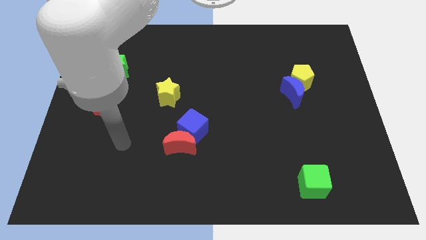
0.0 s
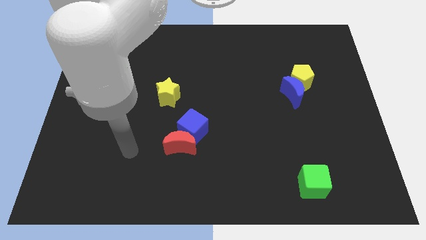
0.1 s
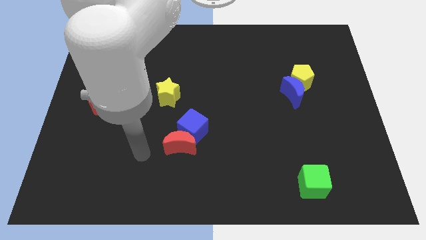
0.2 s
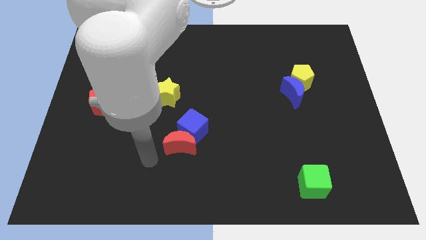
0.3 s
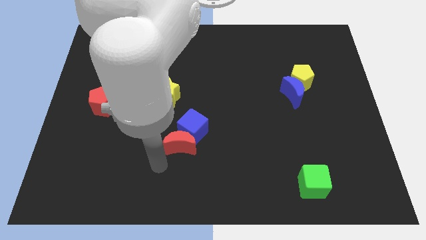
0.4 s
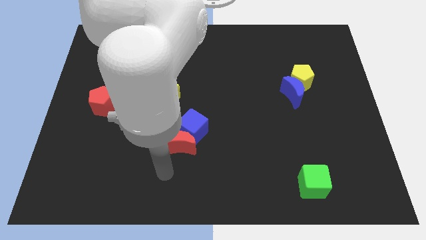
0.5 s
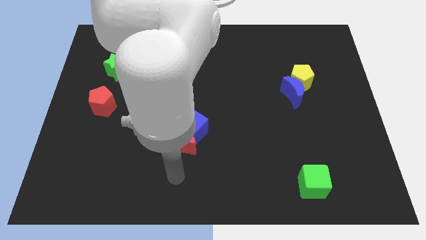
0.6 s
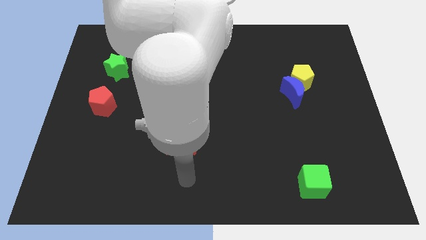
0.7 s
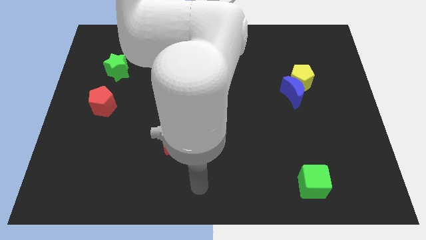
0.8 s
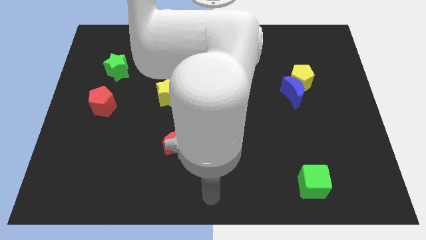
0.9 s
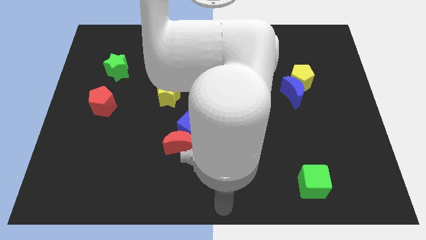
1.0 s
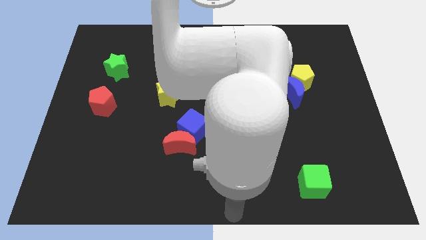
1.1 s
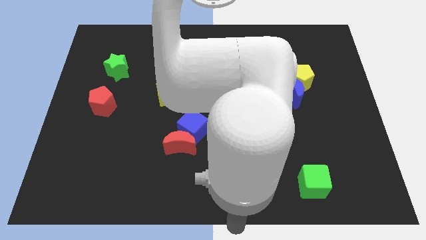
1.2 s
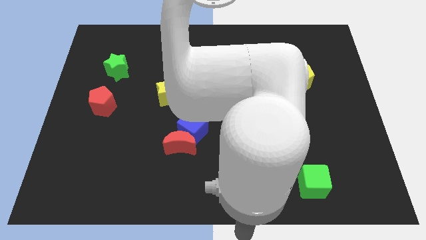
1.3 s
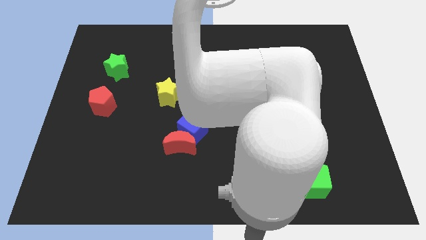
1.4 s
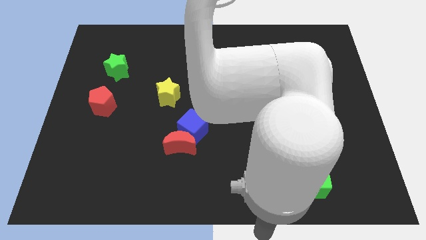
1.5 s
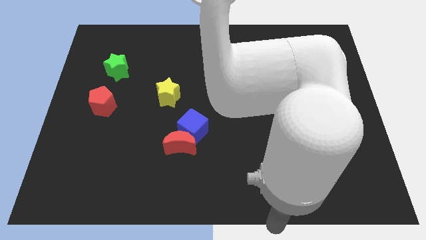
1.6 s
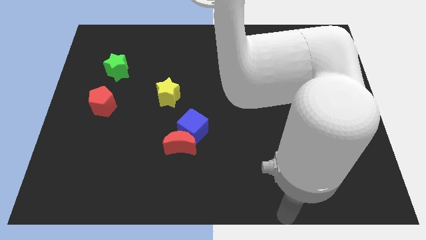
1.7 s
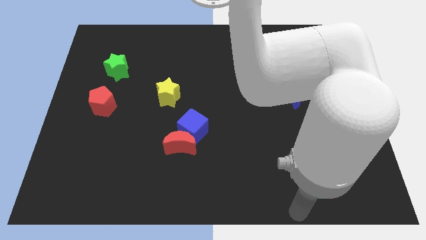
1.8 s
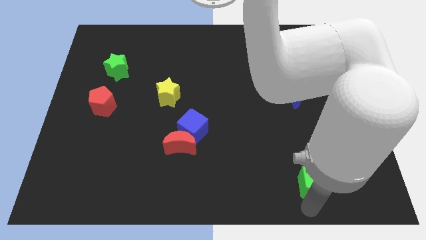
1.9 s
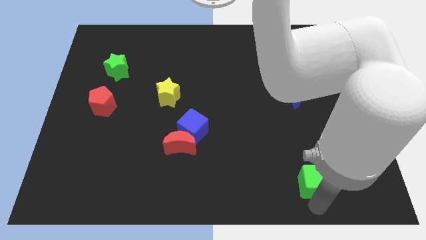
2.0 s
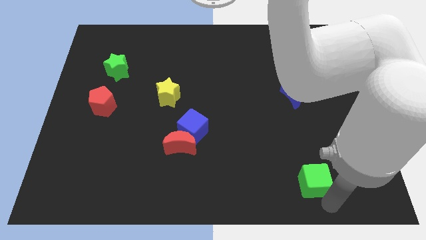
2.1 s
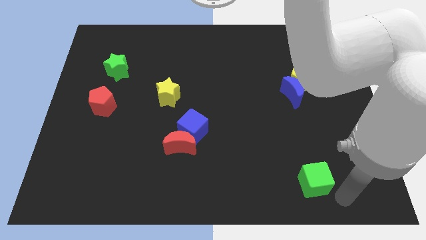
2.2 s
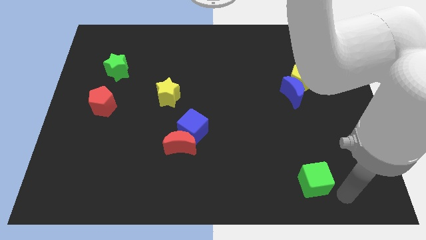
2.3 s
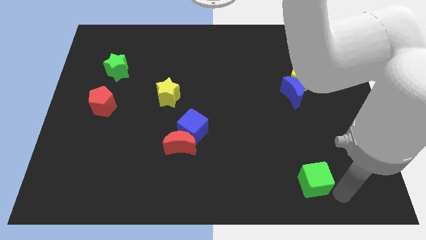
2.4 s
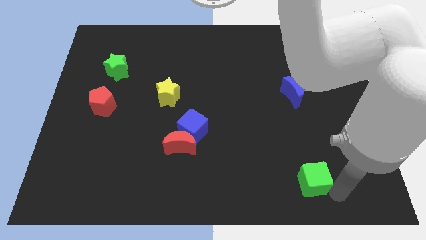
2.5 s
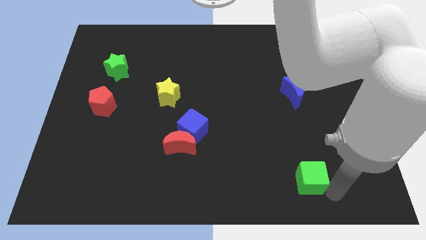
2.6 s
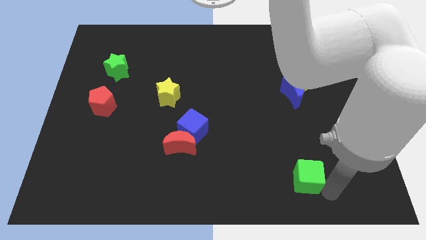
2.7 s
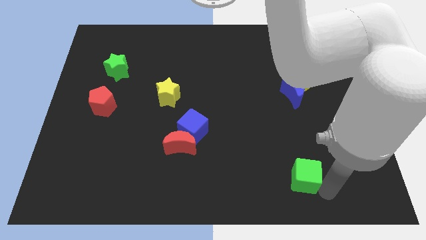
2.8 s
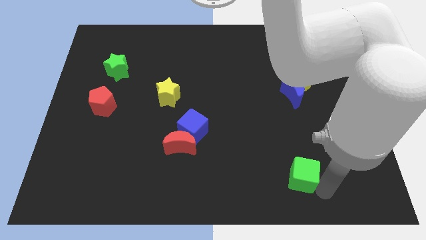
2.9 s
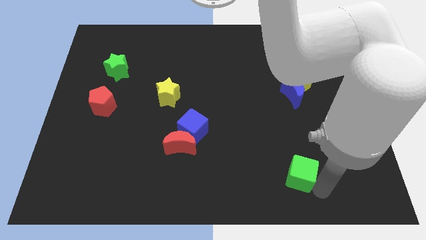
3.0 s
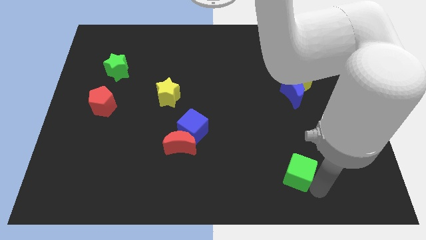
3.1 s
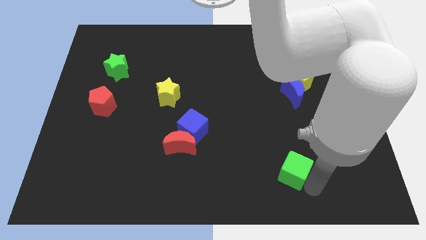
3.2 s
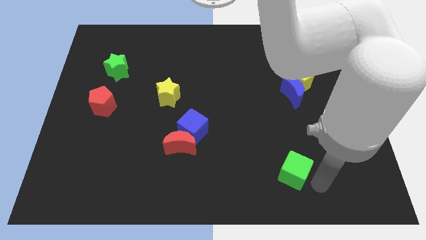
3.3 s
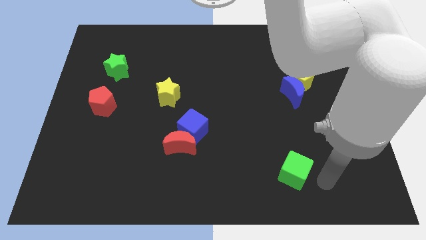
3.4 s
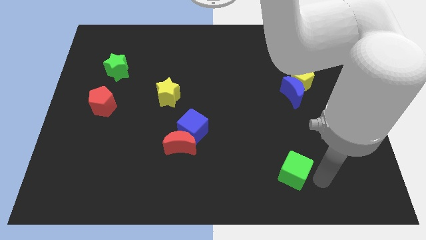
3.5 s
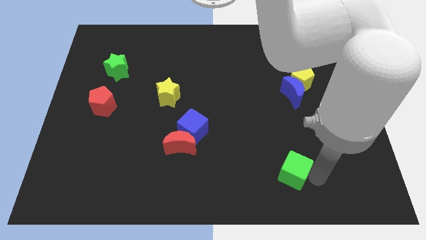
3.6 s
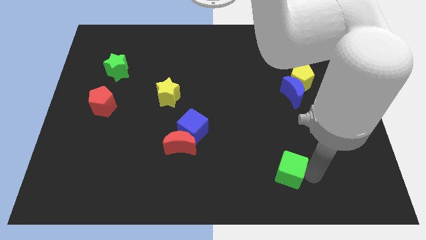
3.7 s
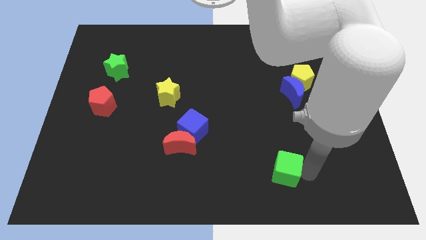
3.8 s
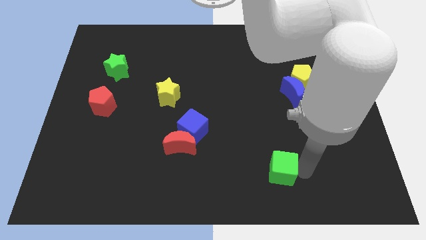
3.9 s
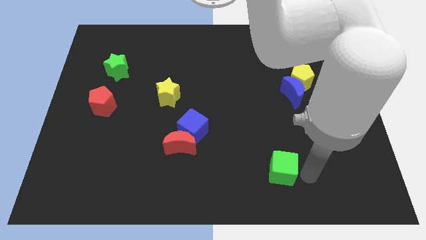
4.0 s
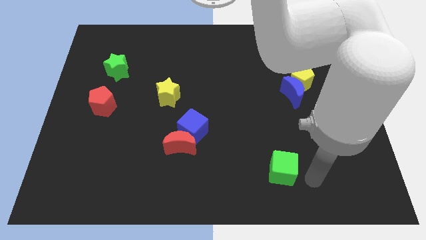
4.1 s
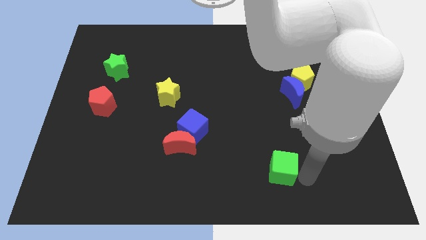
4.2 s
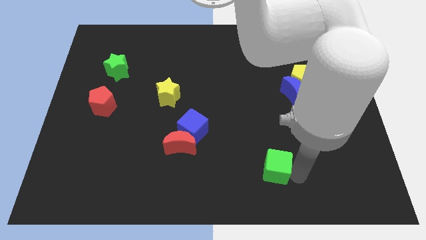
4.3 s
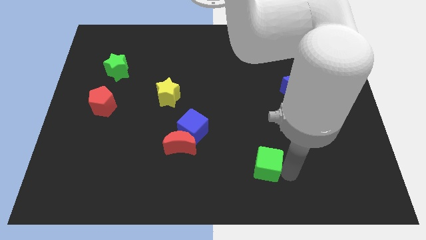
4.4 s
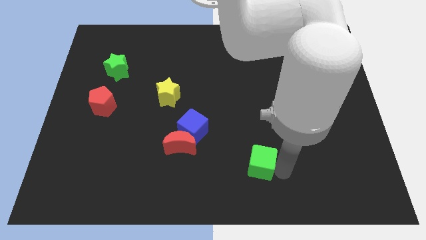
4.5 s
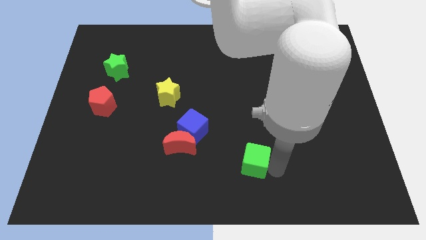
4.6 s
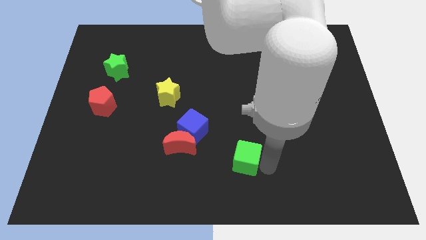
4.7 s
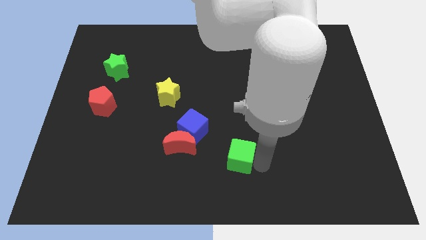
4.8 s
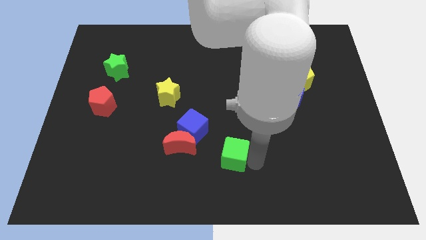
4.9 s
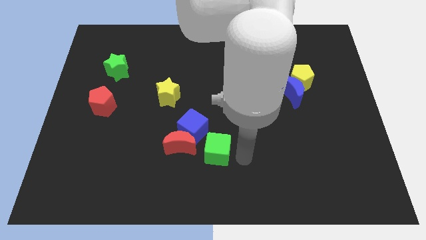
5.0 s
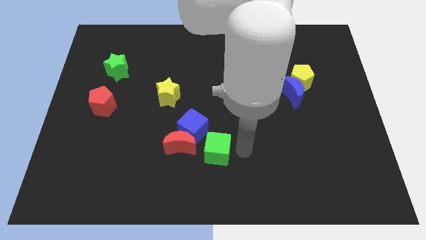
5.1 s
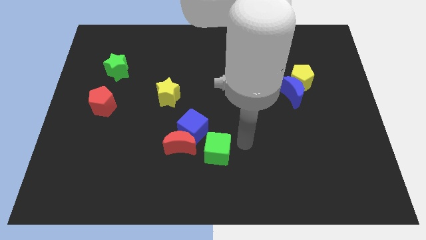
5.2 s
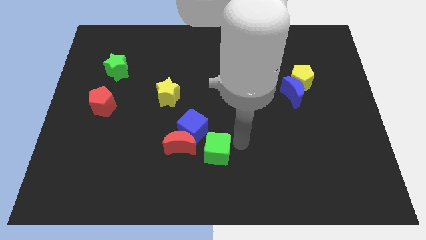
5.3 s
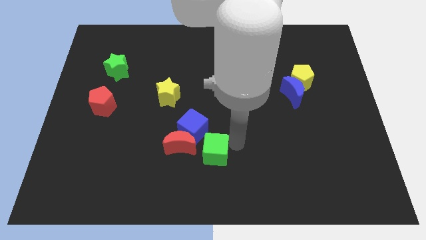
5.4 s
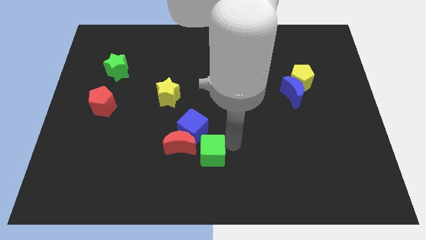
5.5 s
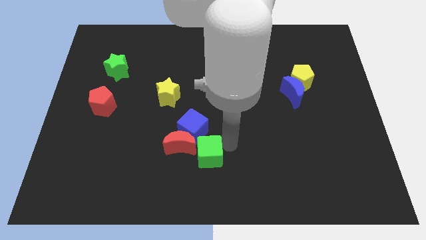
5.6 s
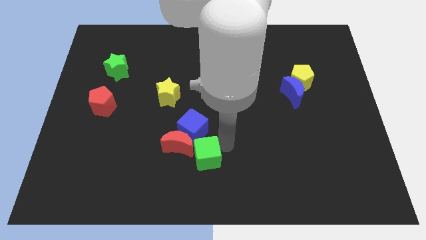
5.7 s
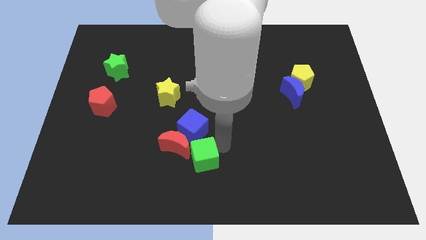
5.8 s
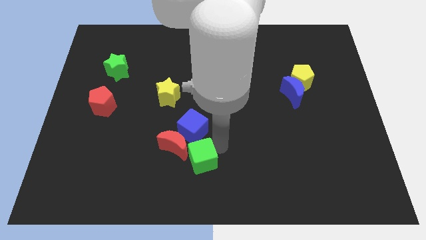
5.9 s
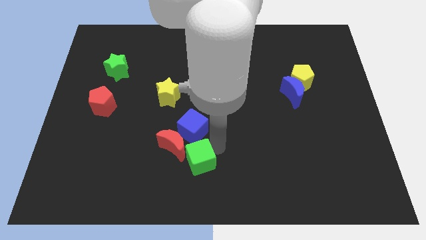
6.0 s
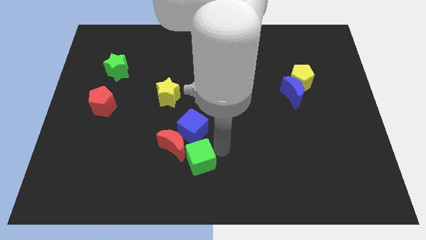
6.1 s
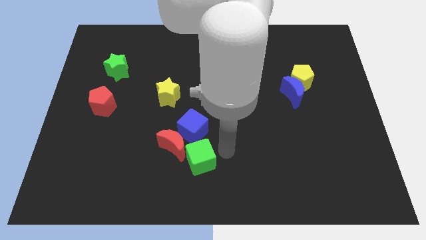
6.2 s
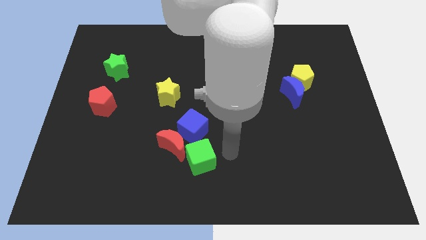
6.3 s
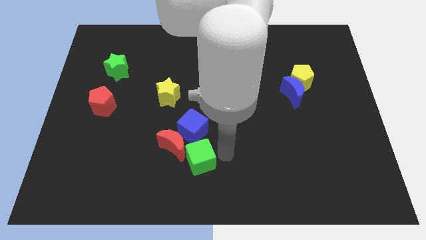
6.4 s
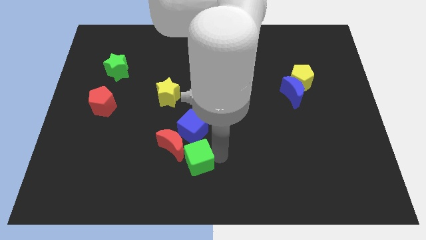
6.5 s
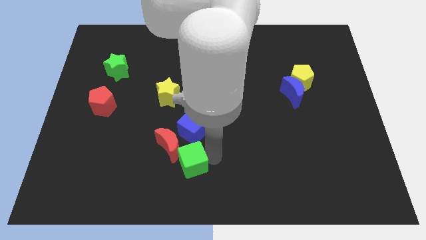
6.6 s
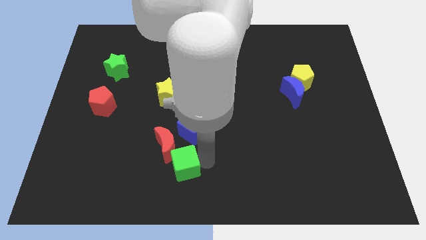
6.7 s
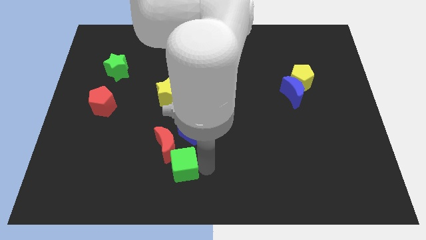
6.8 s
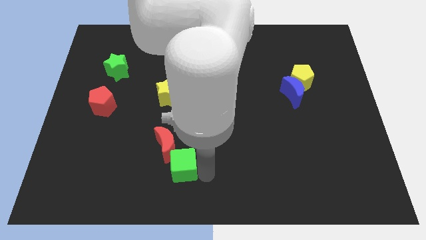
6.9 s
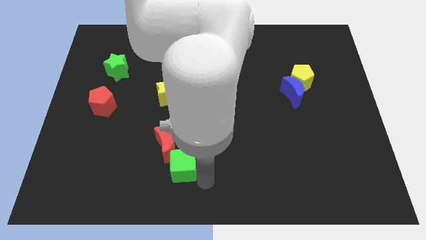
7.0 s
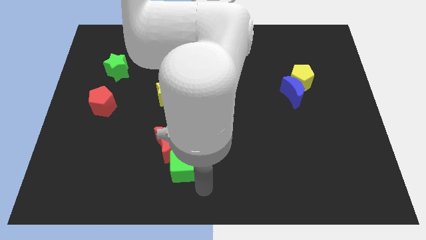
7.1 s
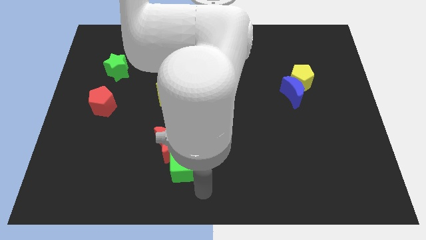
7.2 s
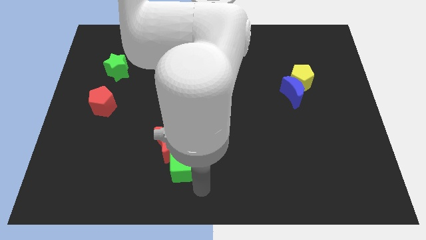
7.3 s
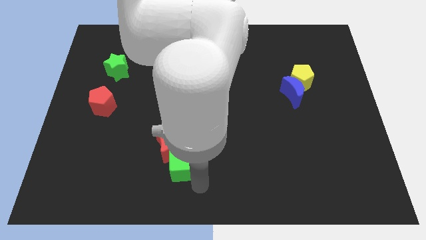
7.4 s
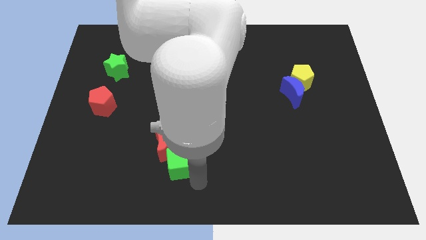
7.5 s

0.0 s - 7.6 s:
put the green cube diagonally down and to the left of the blue cube
